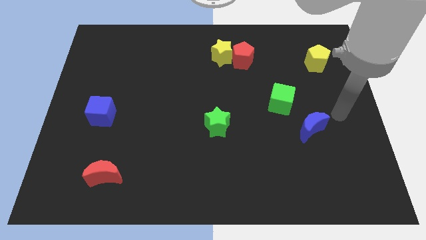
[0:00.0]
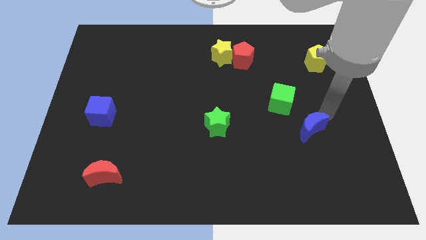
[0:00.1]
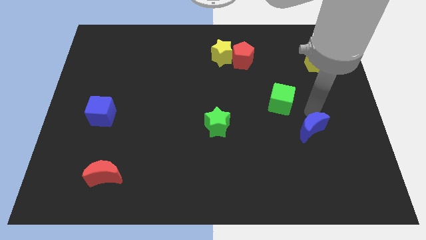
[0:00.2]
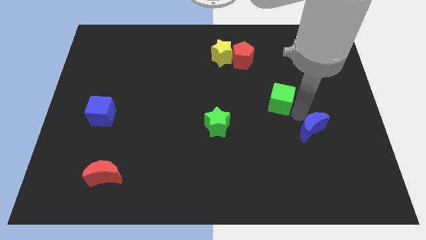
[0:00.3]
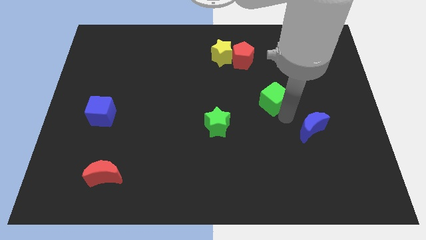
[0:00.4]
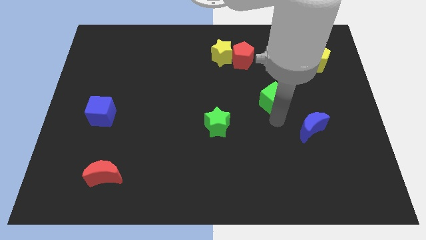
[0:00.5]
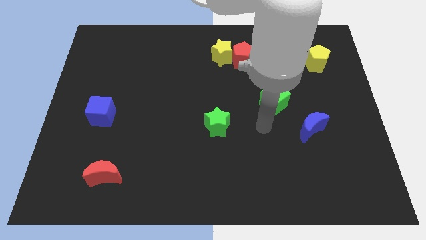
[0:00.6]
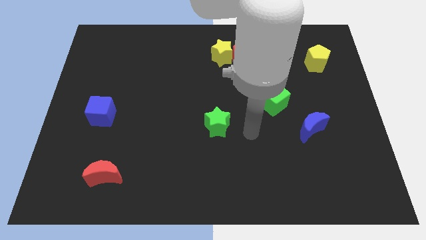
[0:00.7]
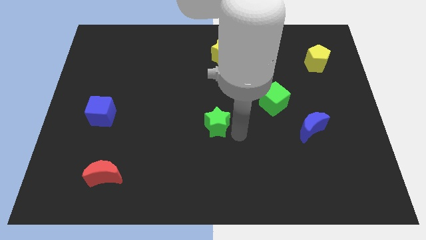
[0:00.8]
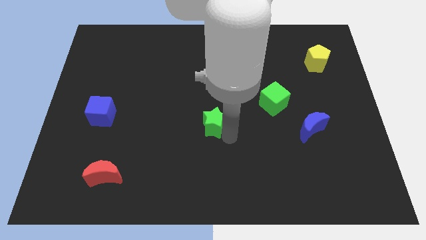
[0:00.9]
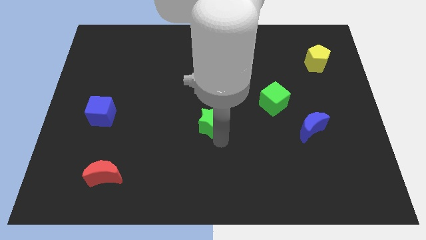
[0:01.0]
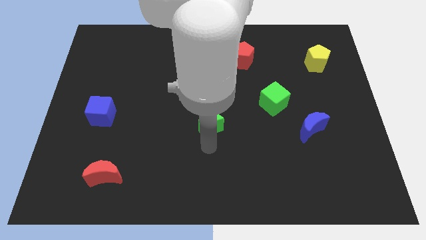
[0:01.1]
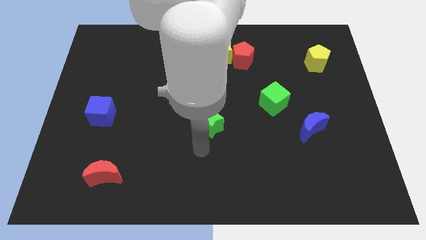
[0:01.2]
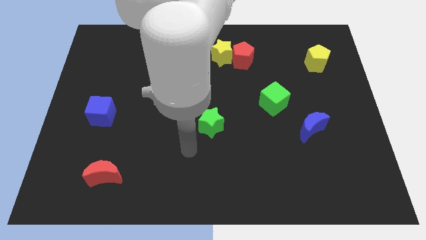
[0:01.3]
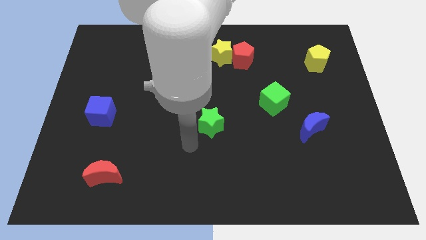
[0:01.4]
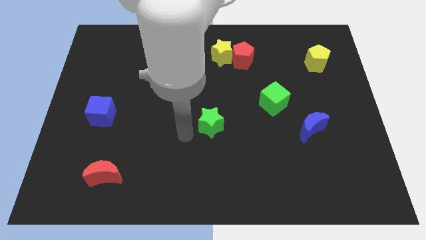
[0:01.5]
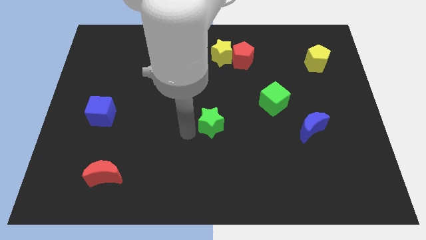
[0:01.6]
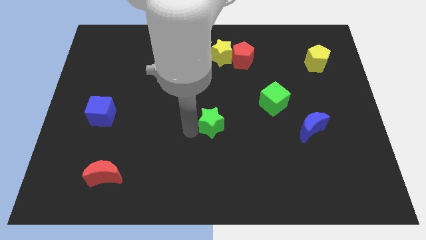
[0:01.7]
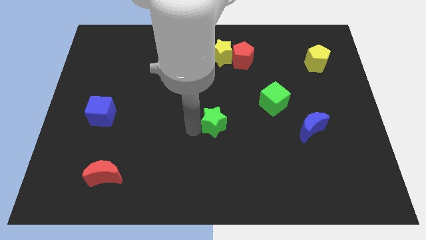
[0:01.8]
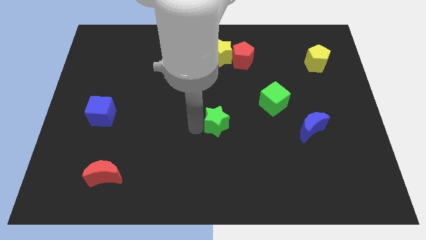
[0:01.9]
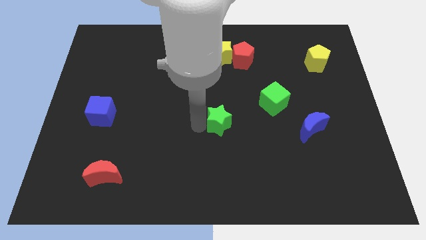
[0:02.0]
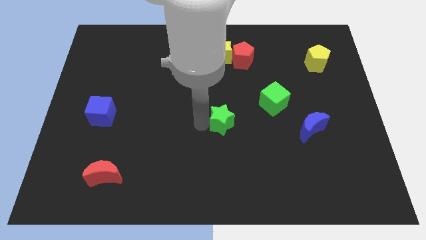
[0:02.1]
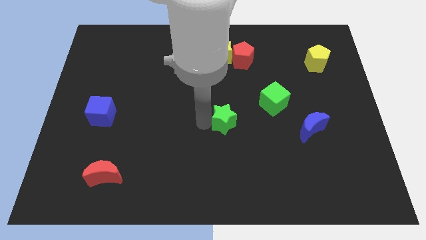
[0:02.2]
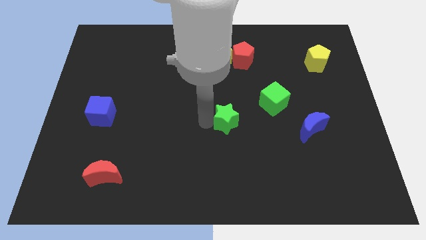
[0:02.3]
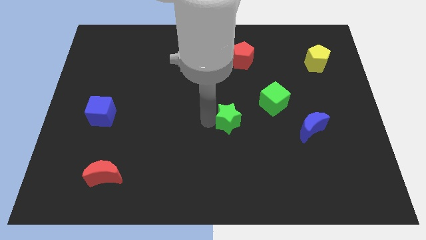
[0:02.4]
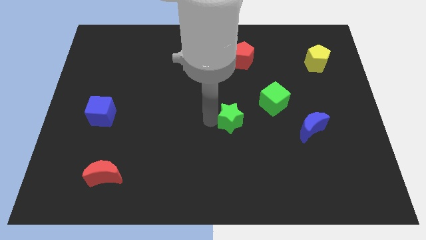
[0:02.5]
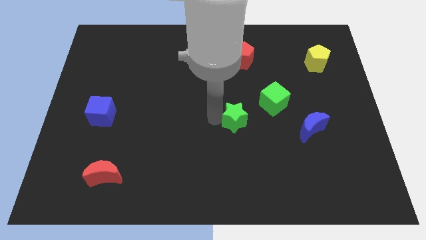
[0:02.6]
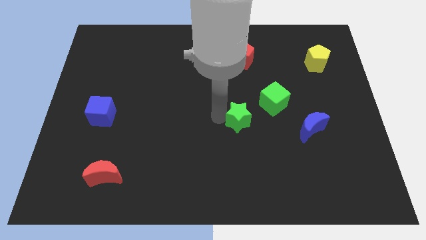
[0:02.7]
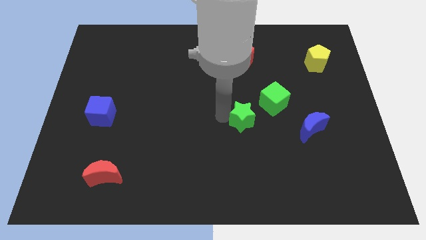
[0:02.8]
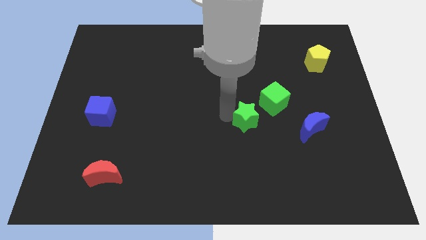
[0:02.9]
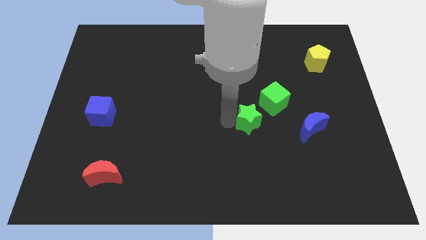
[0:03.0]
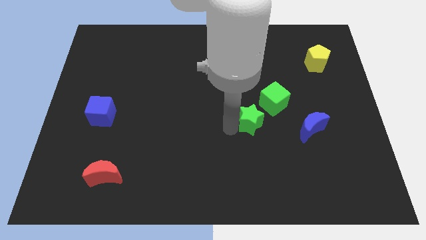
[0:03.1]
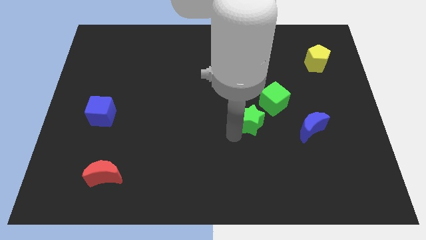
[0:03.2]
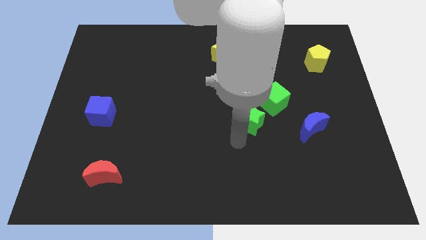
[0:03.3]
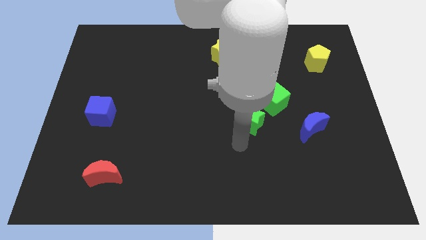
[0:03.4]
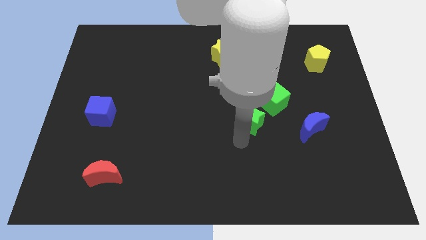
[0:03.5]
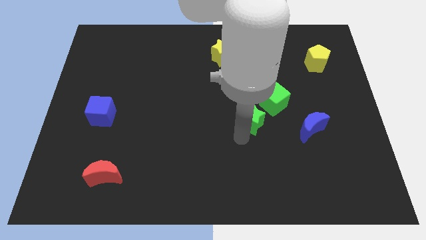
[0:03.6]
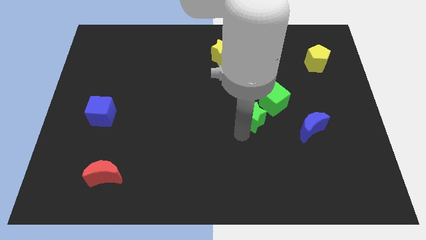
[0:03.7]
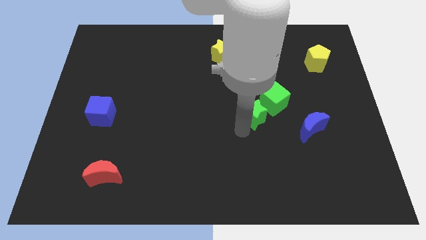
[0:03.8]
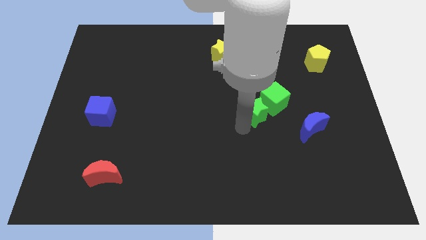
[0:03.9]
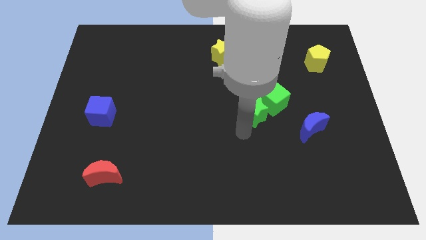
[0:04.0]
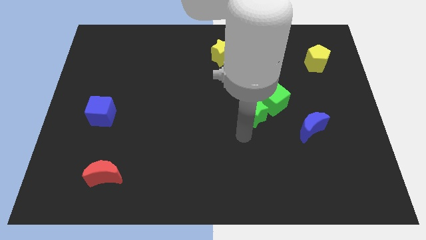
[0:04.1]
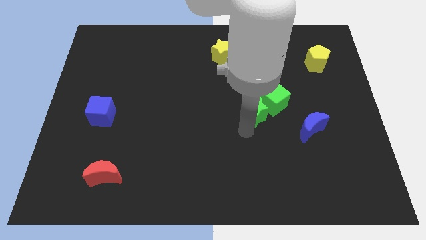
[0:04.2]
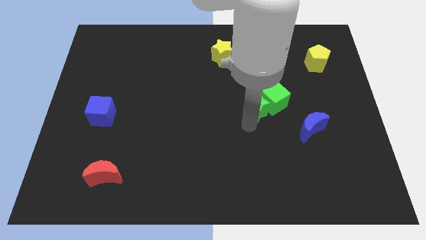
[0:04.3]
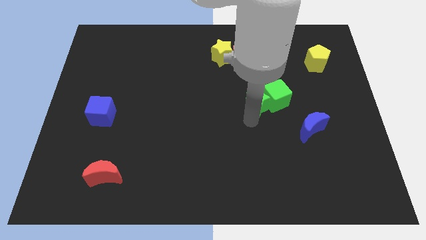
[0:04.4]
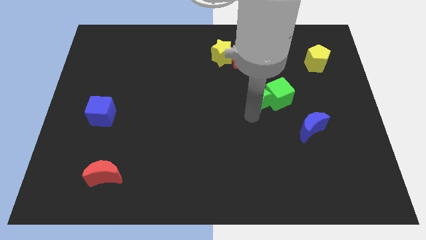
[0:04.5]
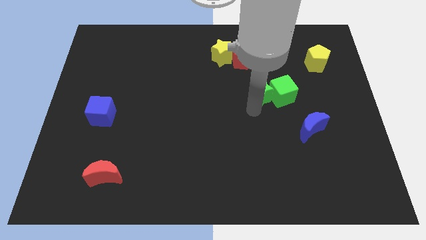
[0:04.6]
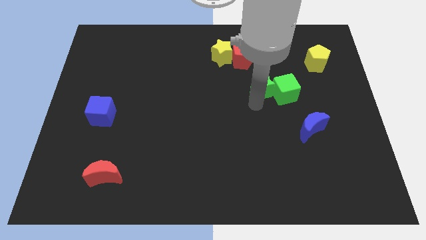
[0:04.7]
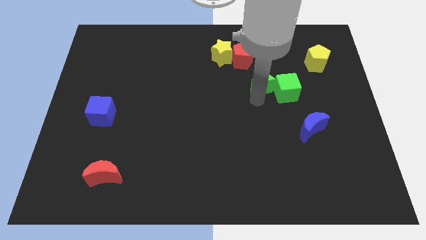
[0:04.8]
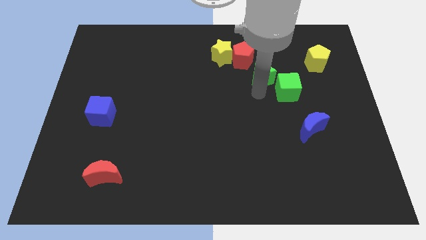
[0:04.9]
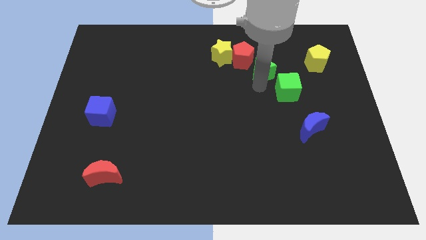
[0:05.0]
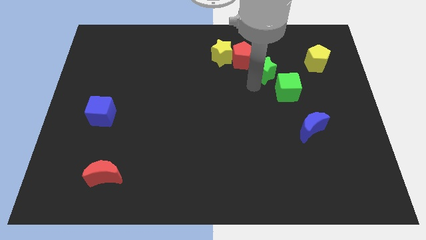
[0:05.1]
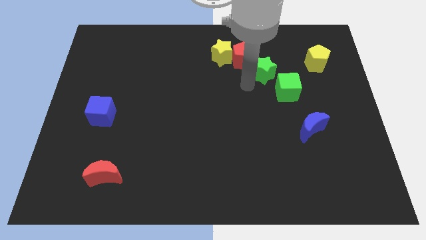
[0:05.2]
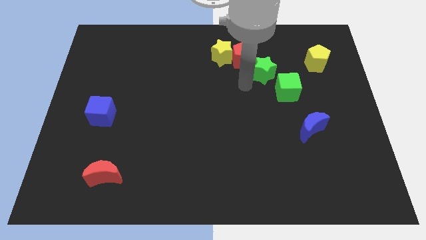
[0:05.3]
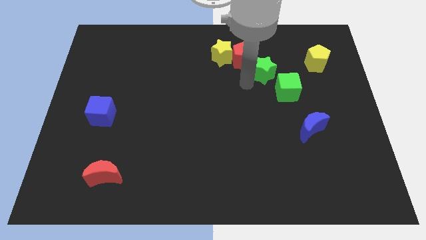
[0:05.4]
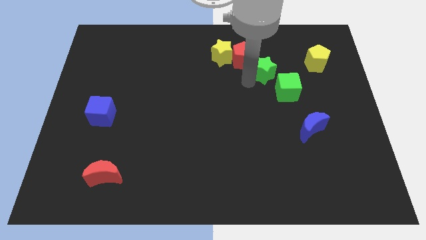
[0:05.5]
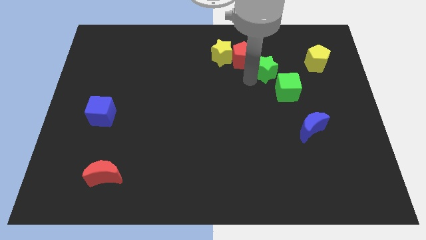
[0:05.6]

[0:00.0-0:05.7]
push the green star above the green cube

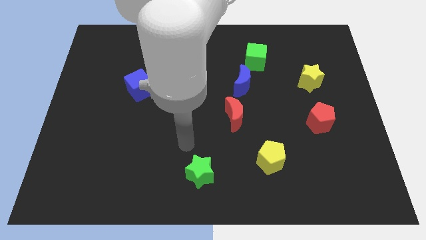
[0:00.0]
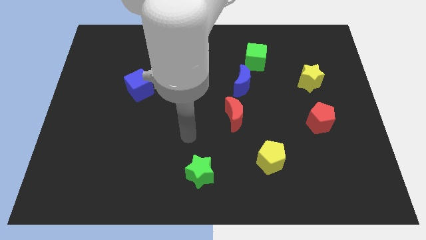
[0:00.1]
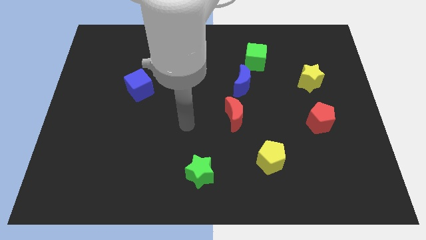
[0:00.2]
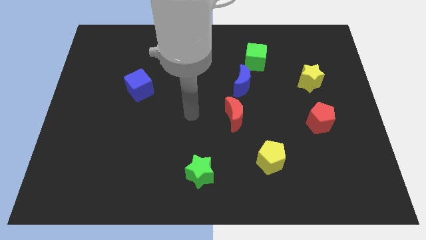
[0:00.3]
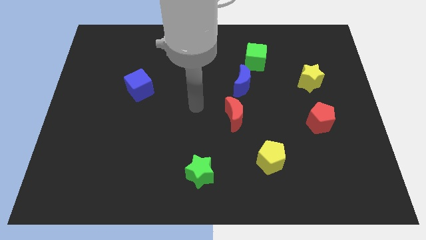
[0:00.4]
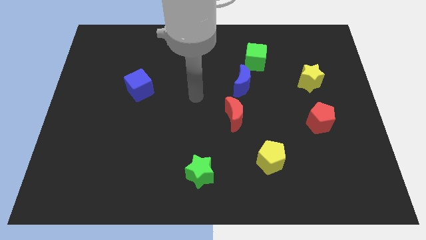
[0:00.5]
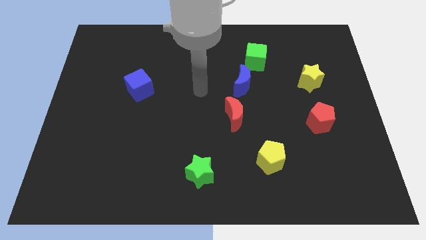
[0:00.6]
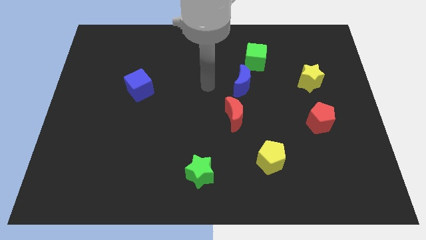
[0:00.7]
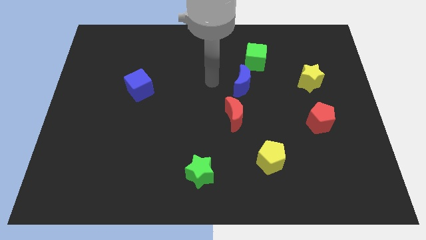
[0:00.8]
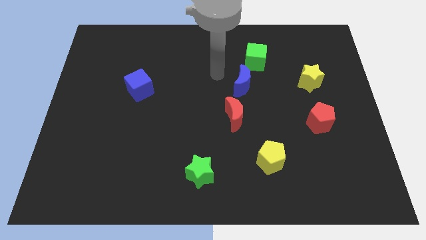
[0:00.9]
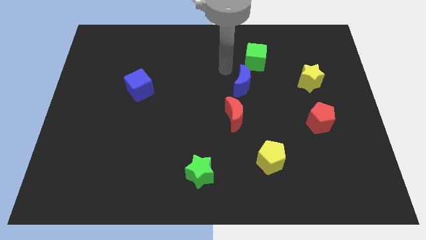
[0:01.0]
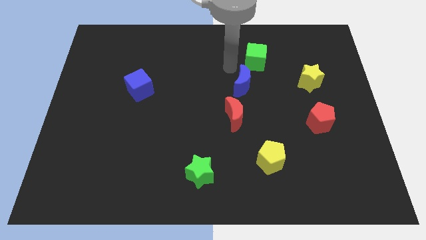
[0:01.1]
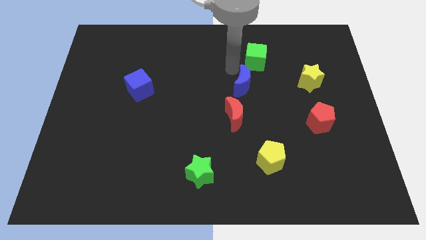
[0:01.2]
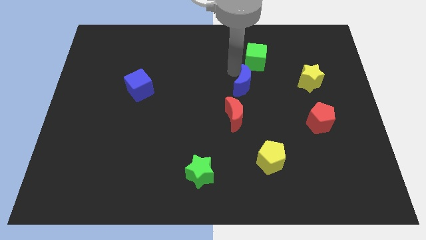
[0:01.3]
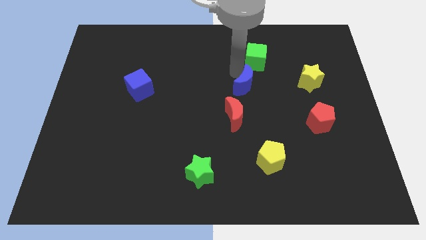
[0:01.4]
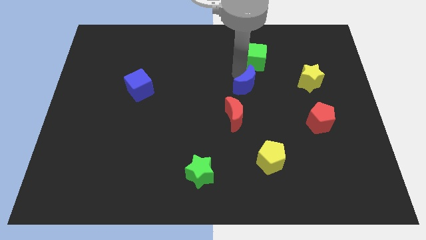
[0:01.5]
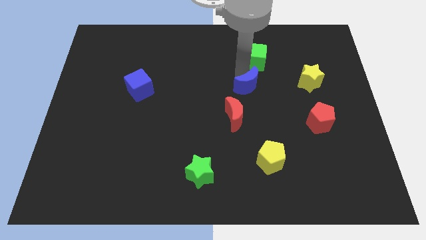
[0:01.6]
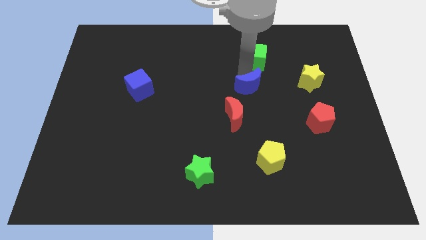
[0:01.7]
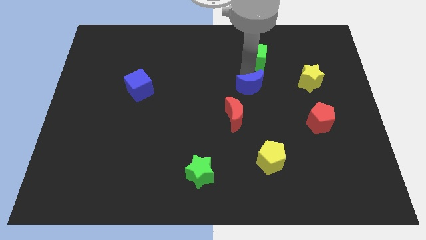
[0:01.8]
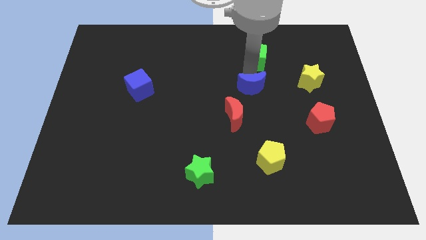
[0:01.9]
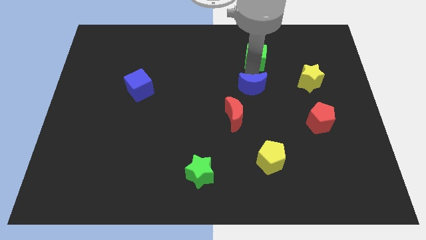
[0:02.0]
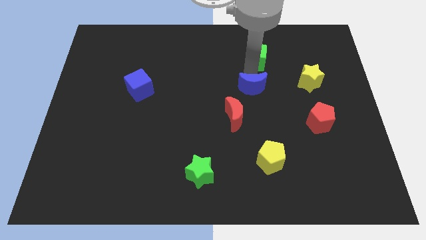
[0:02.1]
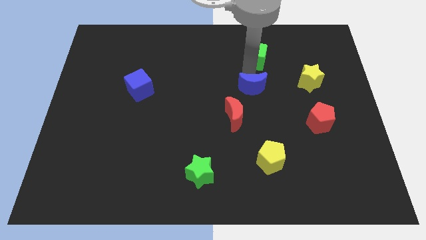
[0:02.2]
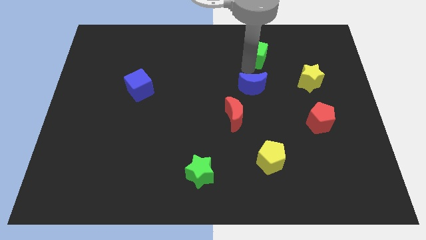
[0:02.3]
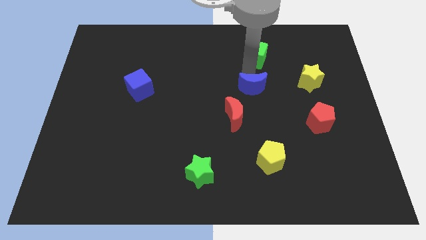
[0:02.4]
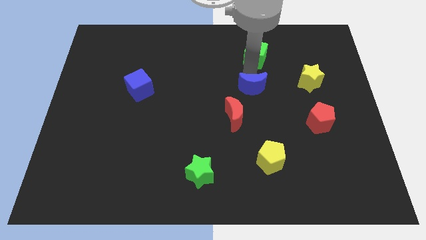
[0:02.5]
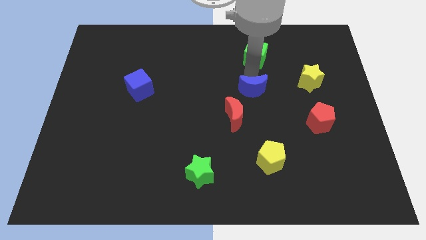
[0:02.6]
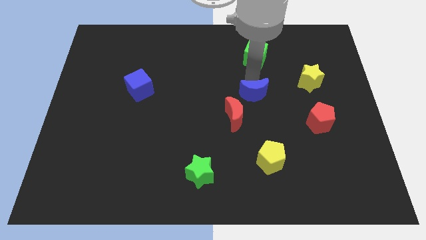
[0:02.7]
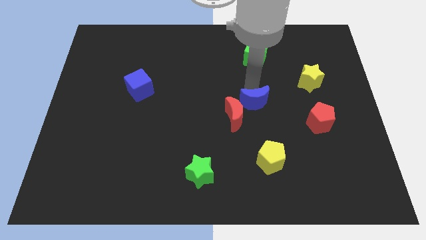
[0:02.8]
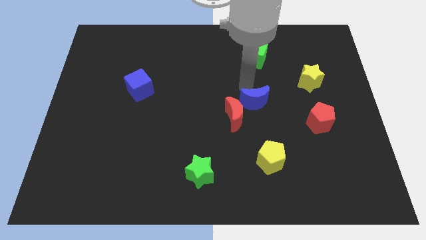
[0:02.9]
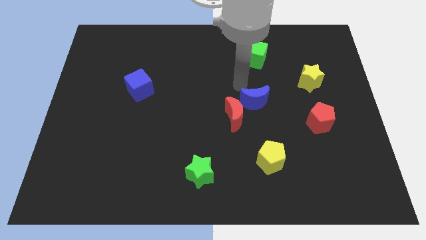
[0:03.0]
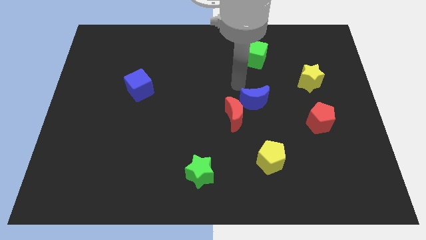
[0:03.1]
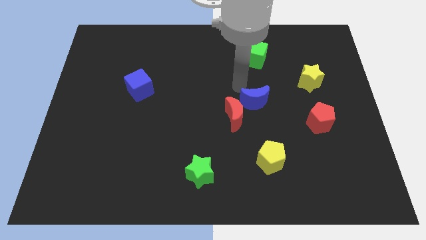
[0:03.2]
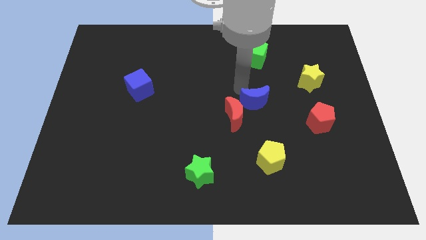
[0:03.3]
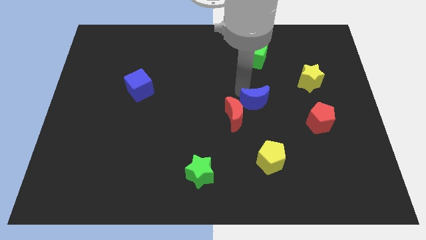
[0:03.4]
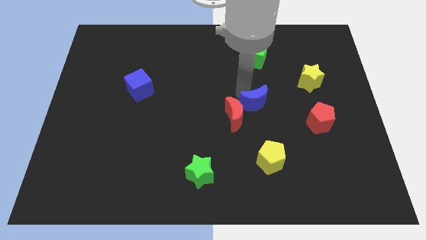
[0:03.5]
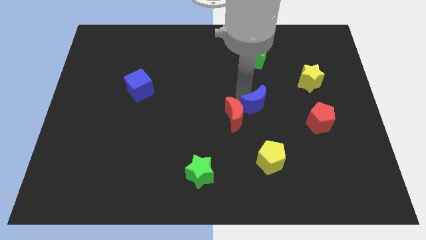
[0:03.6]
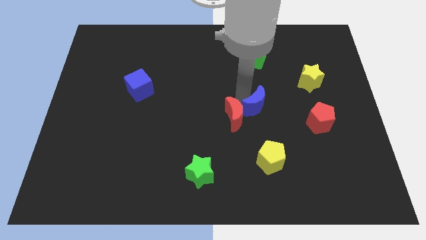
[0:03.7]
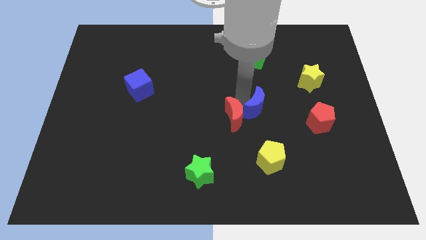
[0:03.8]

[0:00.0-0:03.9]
put the blue moon just left of the red pentagon
